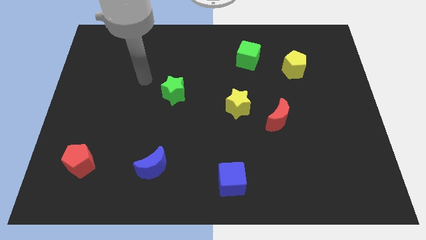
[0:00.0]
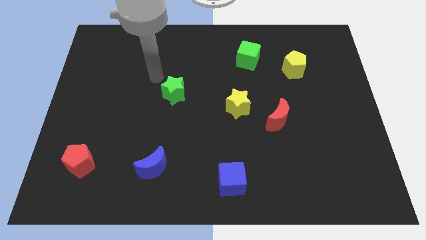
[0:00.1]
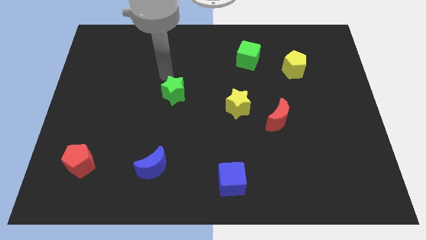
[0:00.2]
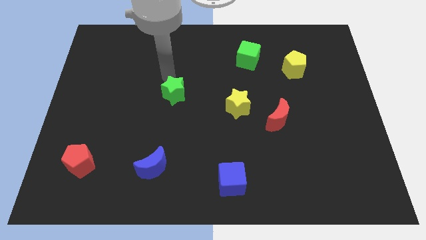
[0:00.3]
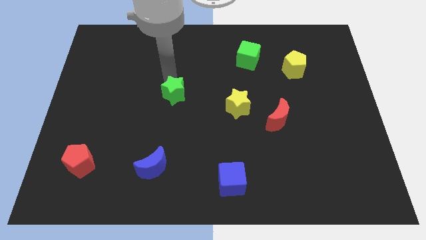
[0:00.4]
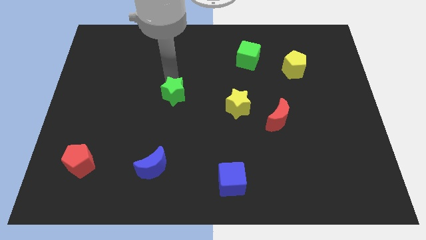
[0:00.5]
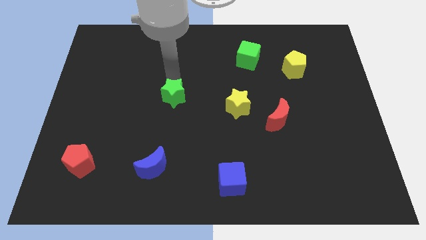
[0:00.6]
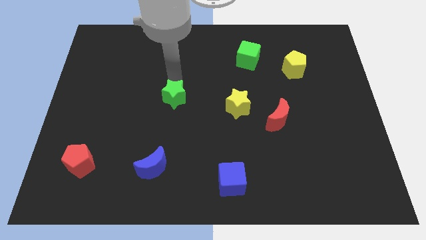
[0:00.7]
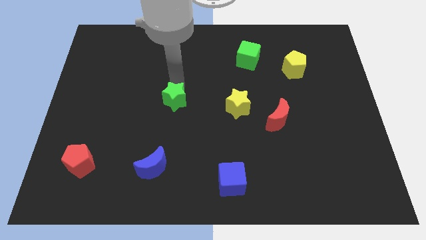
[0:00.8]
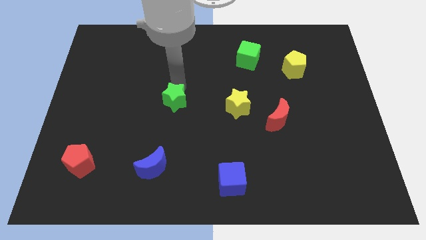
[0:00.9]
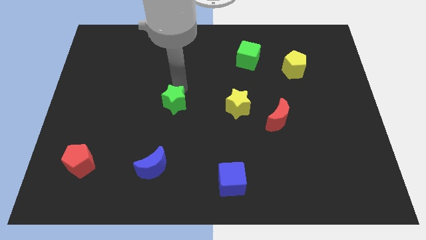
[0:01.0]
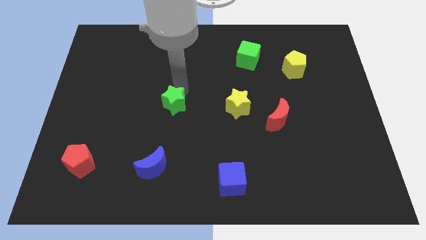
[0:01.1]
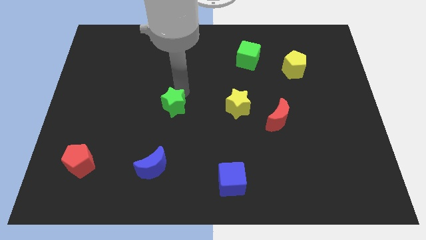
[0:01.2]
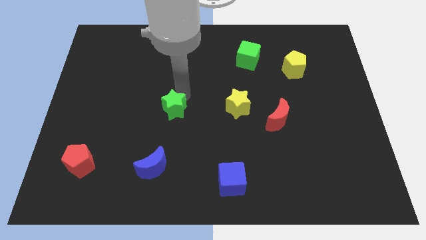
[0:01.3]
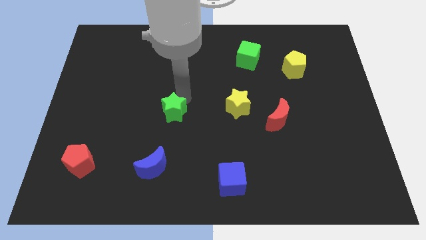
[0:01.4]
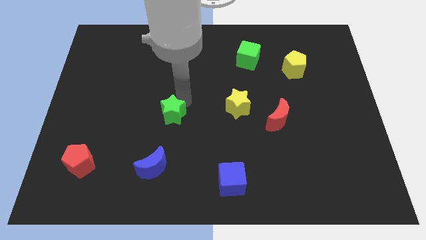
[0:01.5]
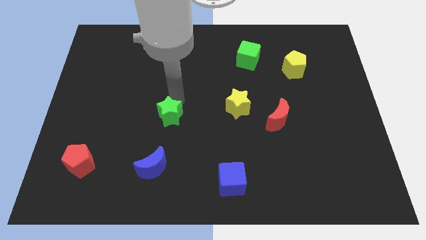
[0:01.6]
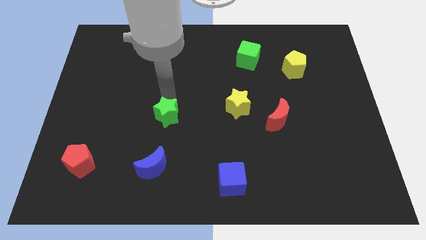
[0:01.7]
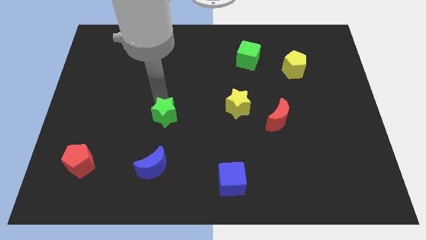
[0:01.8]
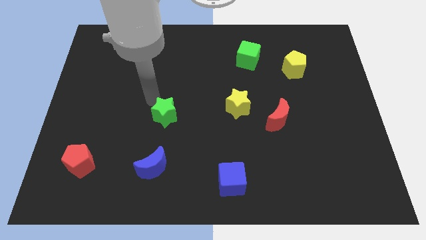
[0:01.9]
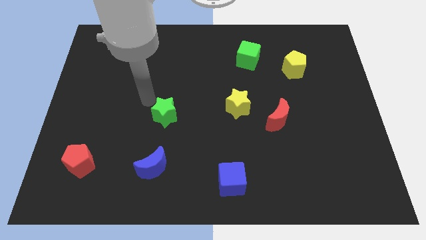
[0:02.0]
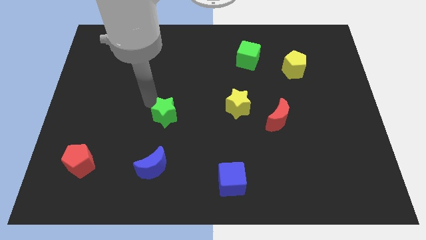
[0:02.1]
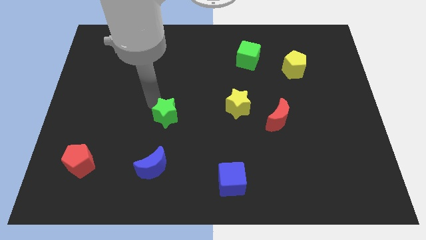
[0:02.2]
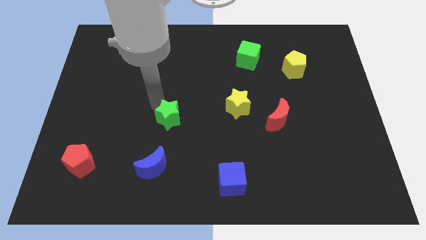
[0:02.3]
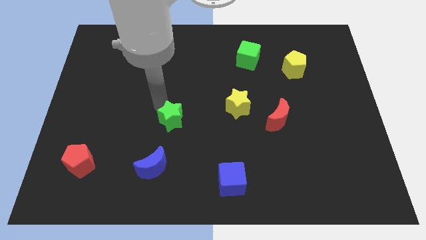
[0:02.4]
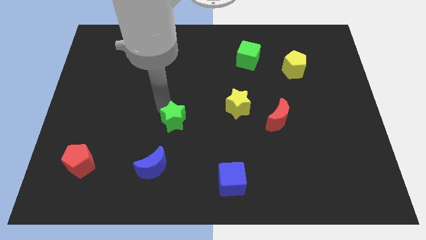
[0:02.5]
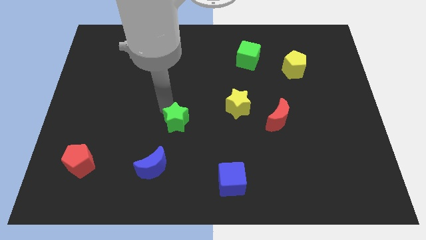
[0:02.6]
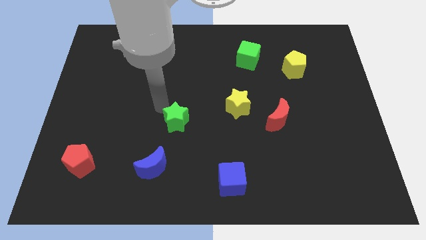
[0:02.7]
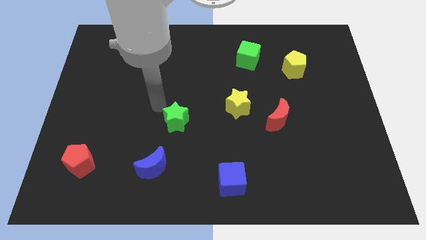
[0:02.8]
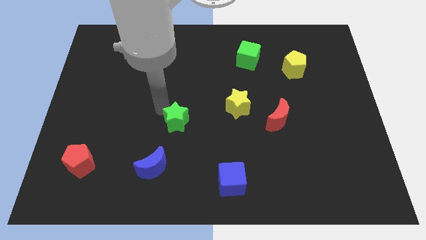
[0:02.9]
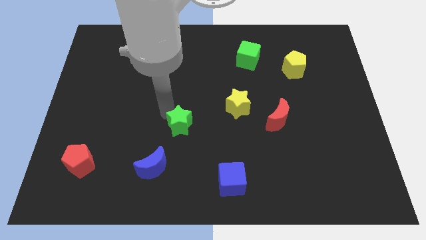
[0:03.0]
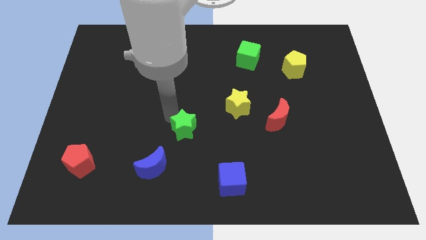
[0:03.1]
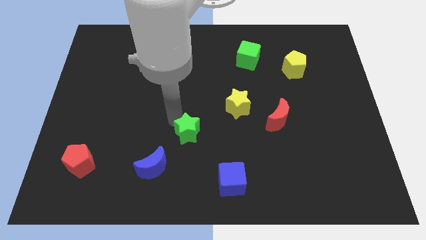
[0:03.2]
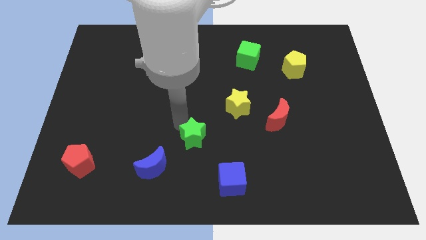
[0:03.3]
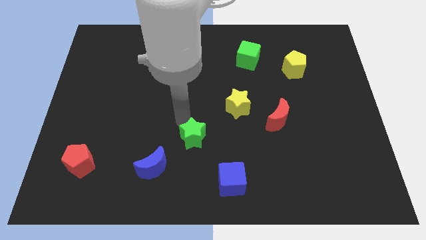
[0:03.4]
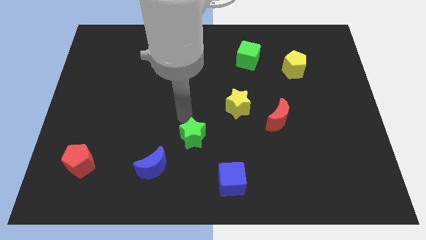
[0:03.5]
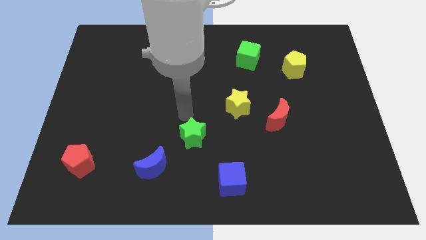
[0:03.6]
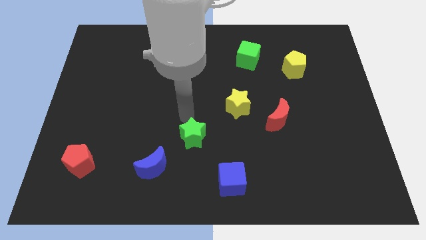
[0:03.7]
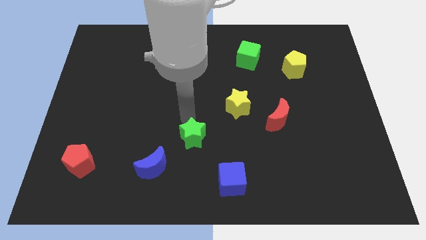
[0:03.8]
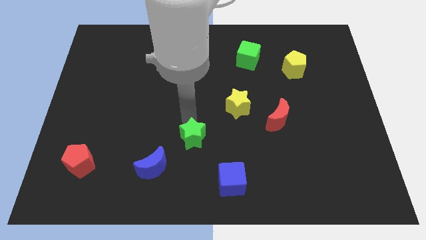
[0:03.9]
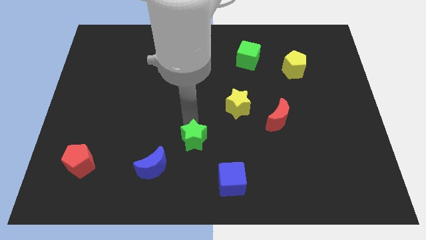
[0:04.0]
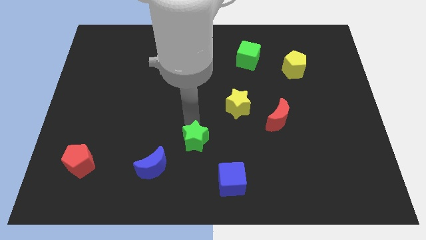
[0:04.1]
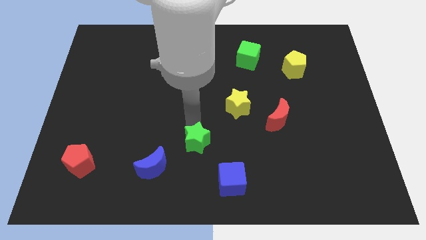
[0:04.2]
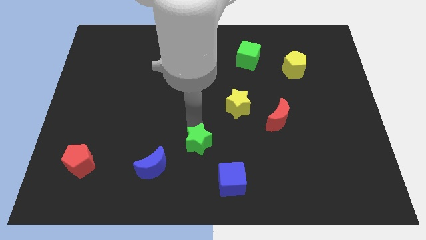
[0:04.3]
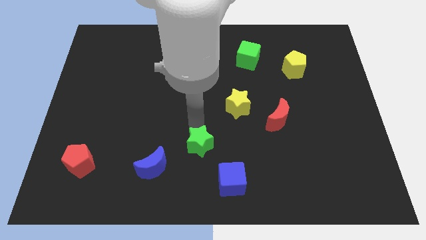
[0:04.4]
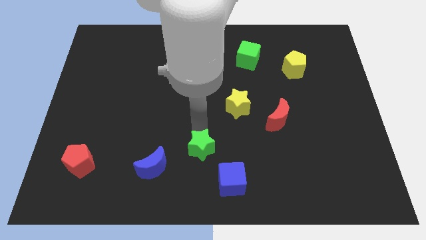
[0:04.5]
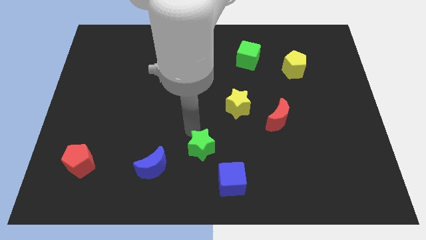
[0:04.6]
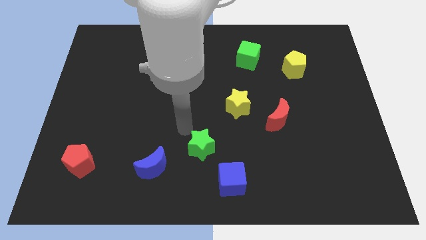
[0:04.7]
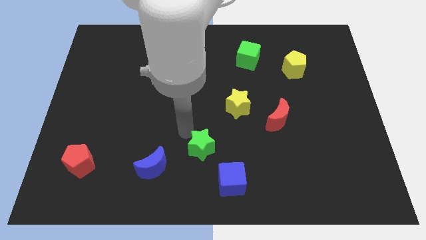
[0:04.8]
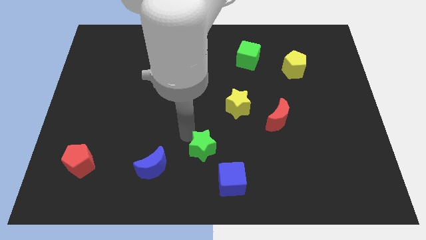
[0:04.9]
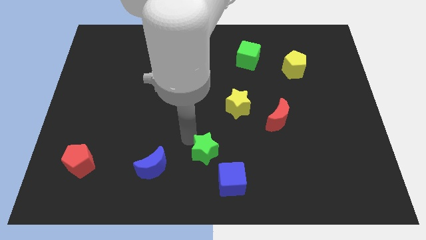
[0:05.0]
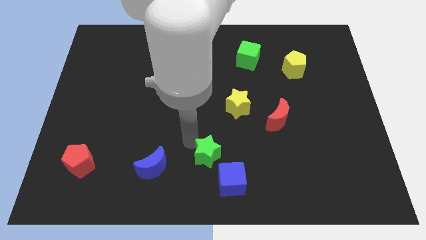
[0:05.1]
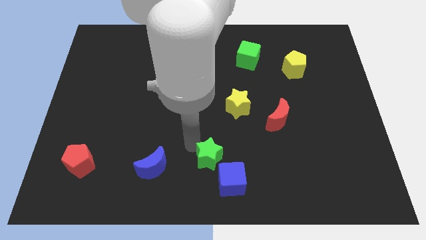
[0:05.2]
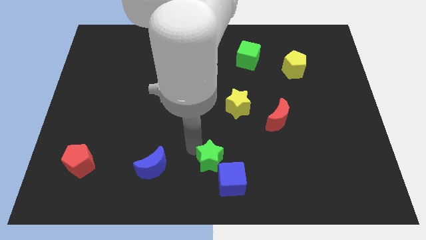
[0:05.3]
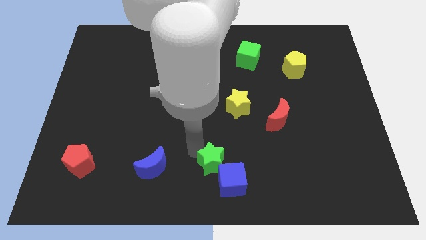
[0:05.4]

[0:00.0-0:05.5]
move the green star close to the blue cube

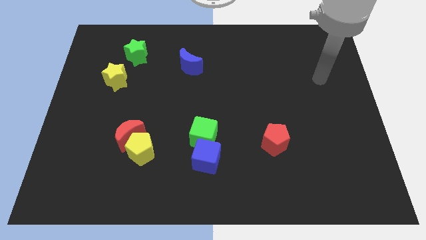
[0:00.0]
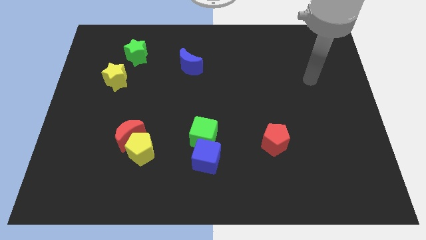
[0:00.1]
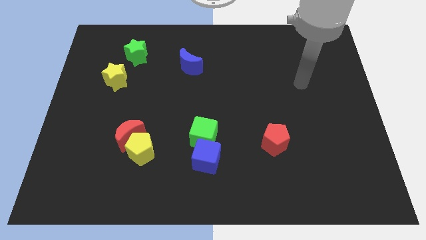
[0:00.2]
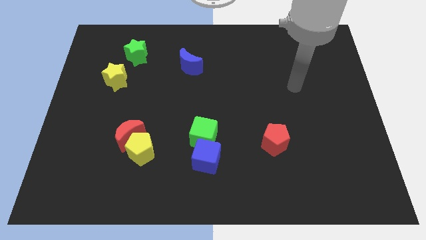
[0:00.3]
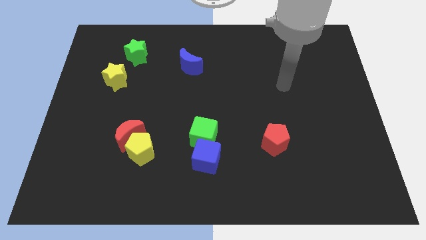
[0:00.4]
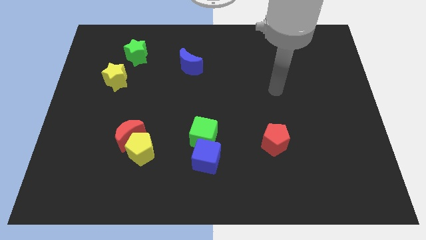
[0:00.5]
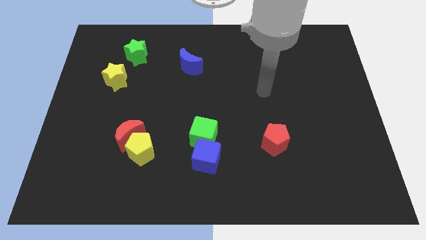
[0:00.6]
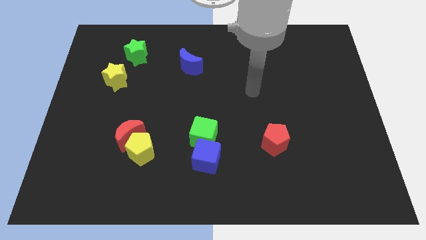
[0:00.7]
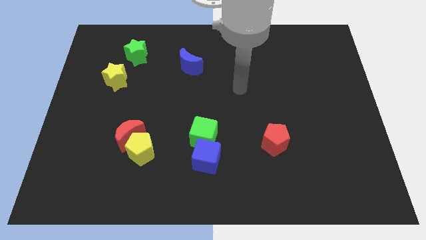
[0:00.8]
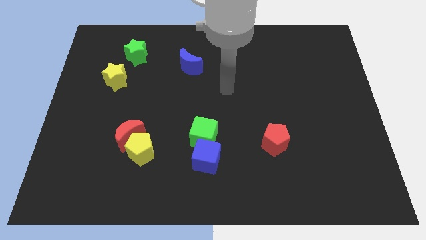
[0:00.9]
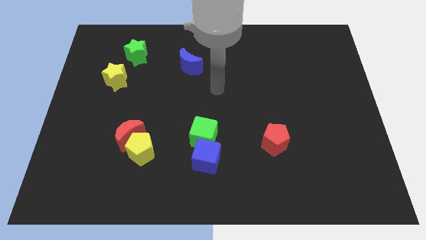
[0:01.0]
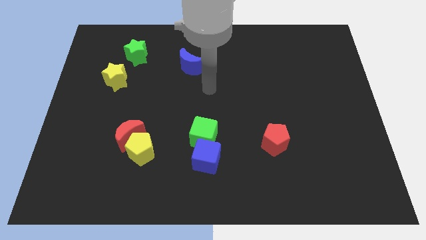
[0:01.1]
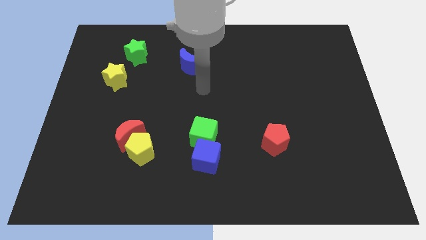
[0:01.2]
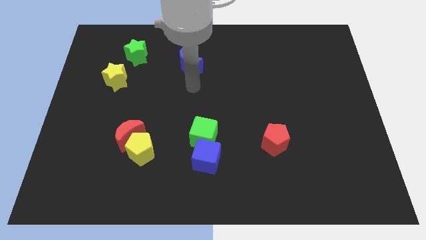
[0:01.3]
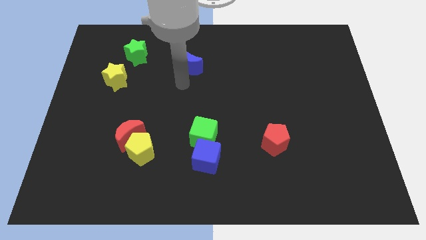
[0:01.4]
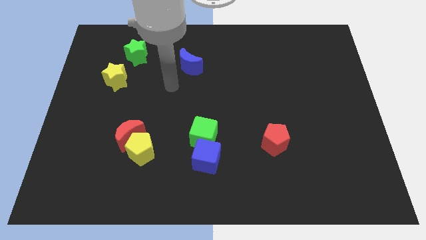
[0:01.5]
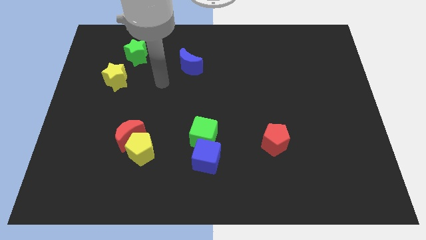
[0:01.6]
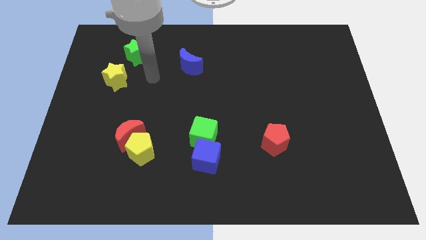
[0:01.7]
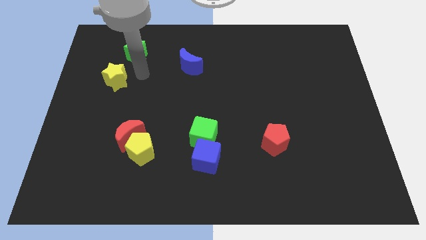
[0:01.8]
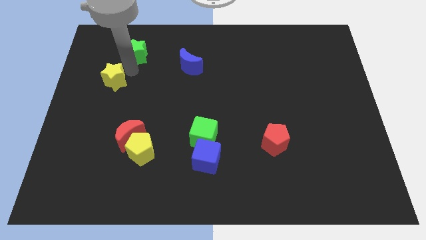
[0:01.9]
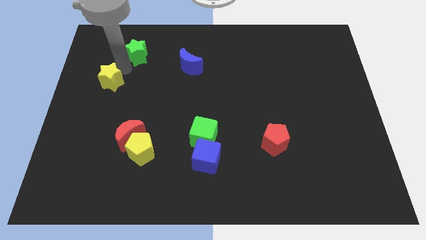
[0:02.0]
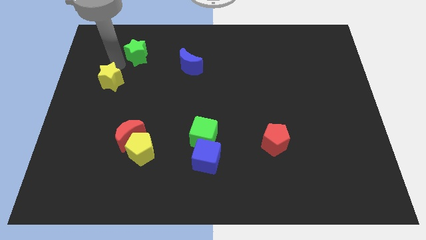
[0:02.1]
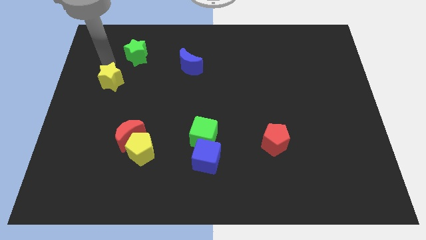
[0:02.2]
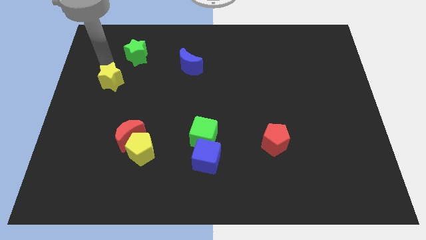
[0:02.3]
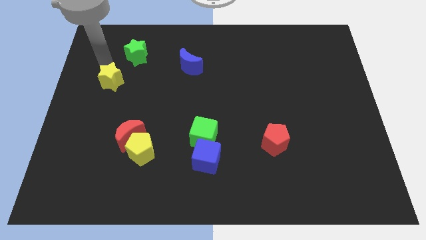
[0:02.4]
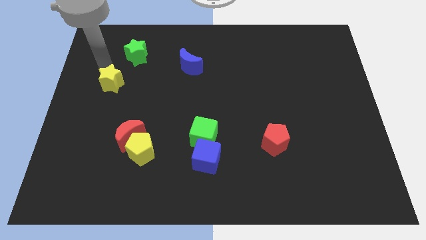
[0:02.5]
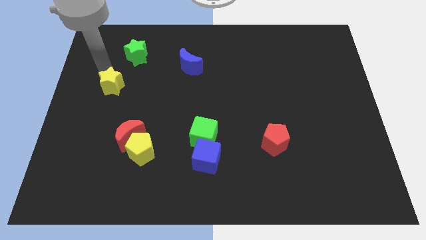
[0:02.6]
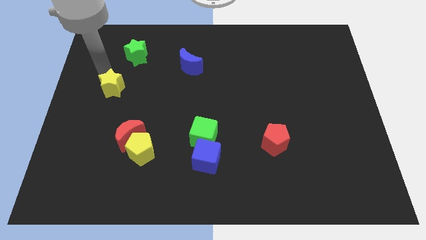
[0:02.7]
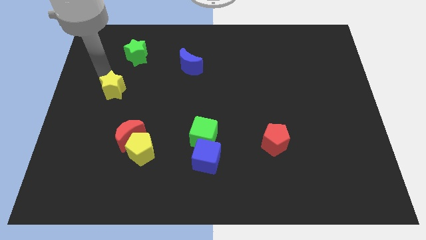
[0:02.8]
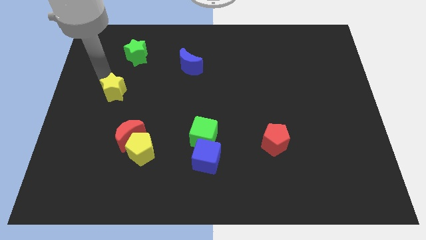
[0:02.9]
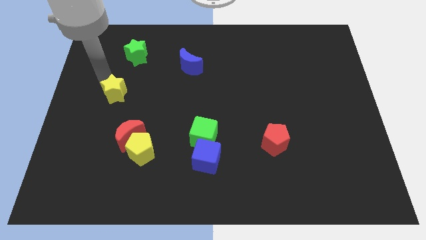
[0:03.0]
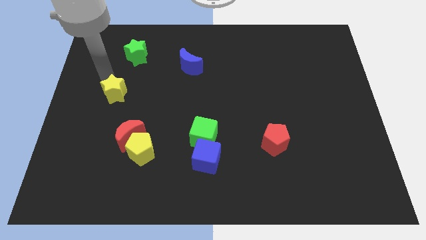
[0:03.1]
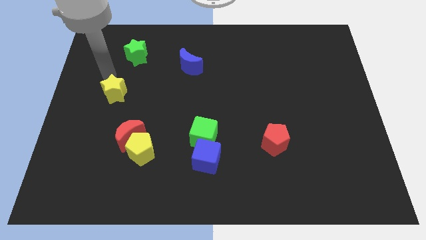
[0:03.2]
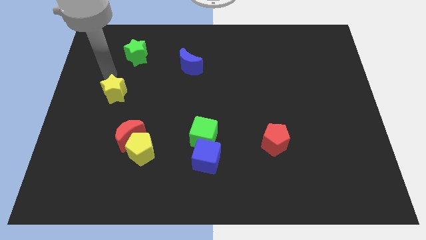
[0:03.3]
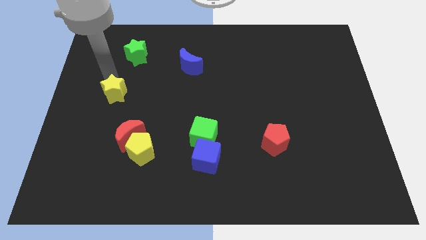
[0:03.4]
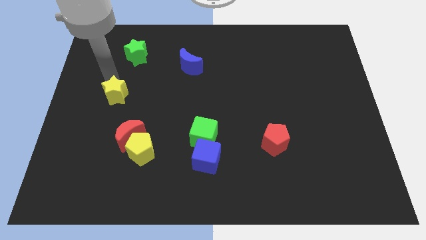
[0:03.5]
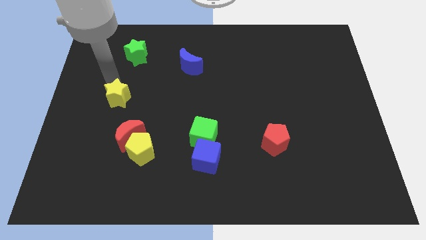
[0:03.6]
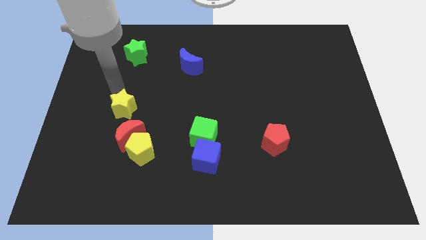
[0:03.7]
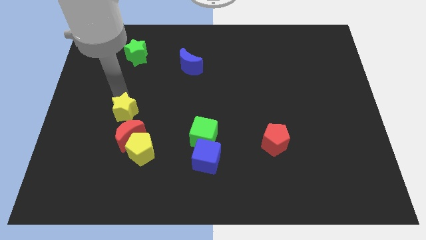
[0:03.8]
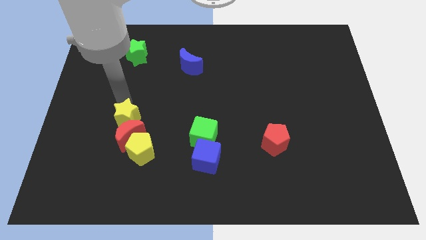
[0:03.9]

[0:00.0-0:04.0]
push the yellow star to the red moon
